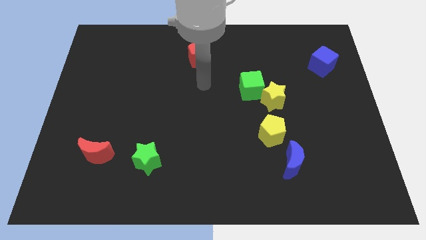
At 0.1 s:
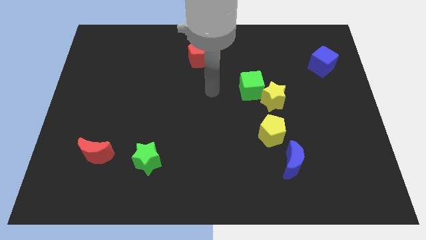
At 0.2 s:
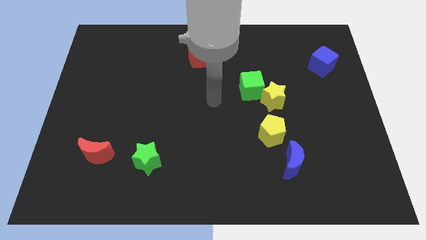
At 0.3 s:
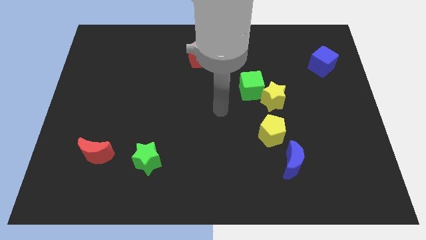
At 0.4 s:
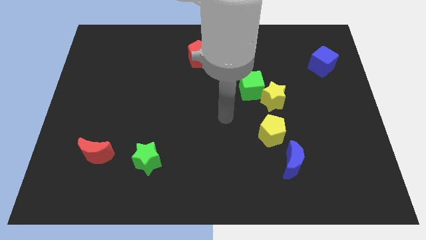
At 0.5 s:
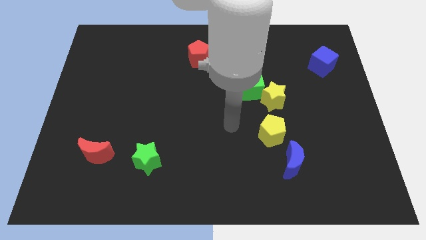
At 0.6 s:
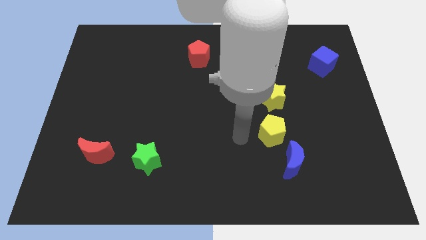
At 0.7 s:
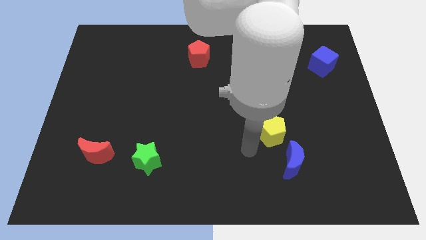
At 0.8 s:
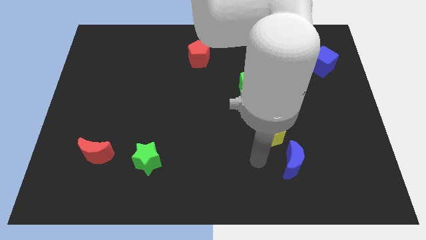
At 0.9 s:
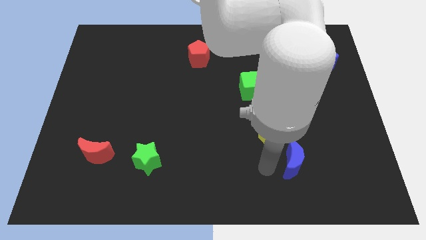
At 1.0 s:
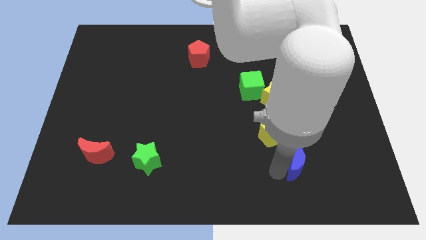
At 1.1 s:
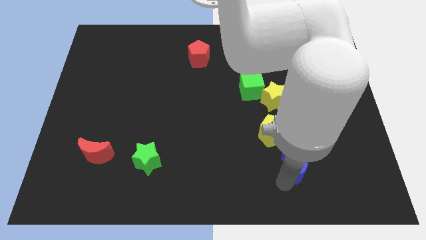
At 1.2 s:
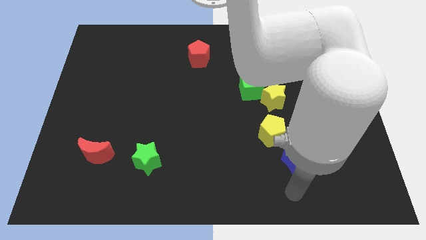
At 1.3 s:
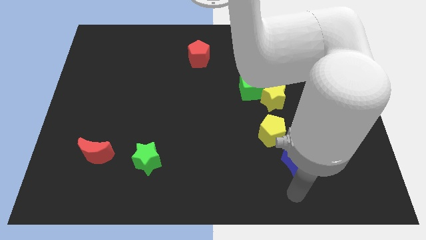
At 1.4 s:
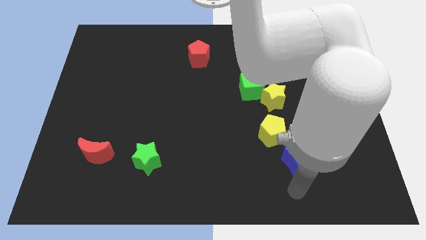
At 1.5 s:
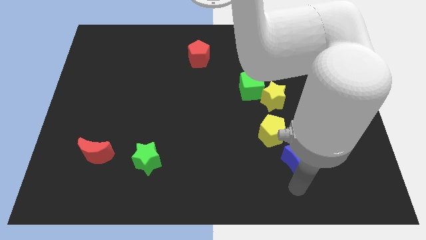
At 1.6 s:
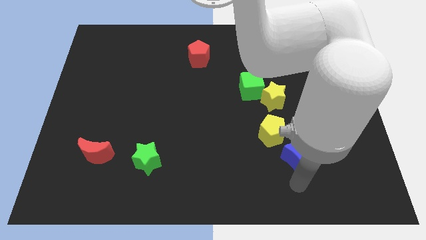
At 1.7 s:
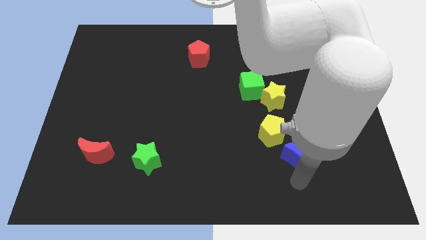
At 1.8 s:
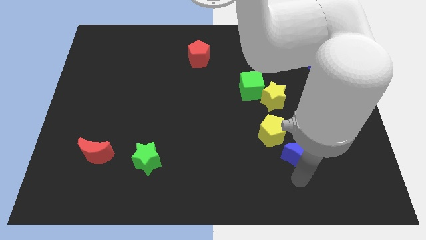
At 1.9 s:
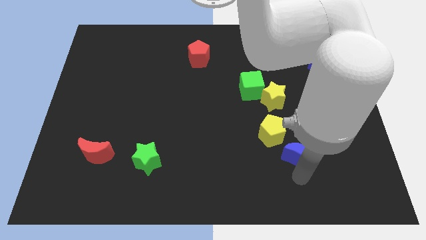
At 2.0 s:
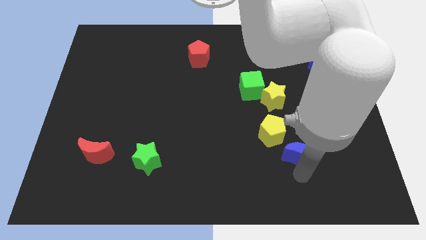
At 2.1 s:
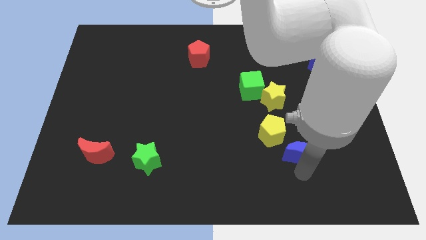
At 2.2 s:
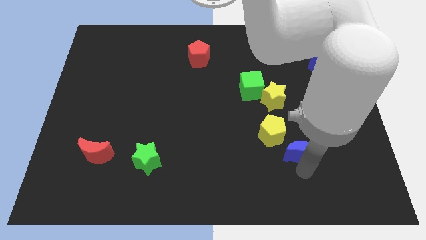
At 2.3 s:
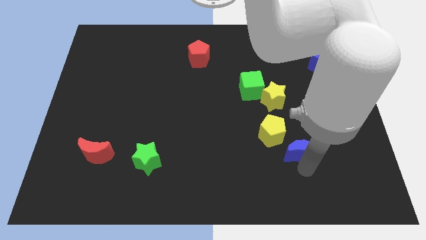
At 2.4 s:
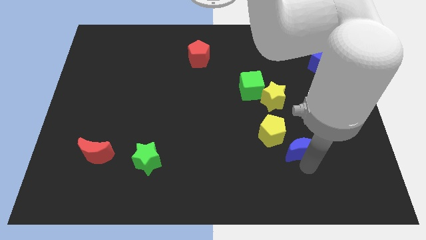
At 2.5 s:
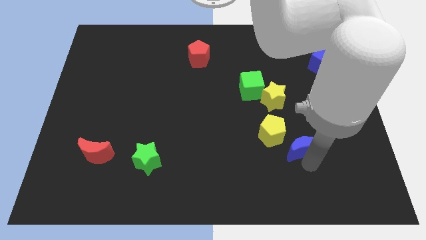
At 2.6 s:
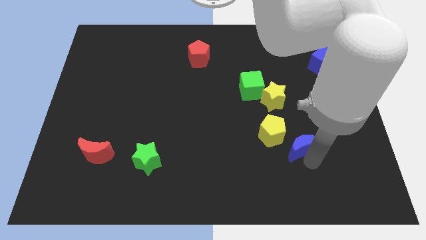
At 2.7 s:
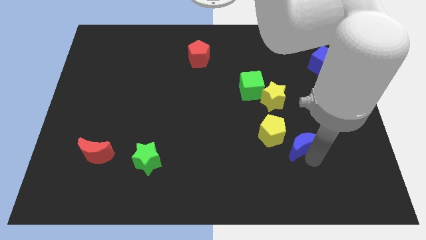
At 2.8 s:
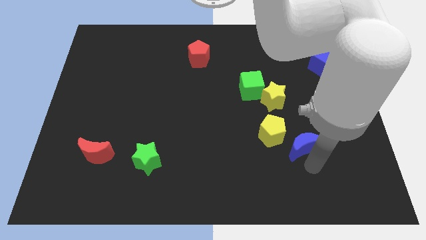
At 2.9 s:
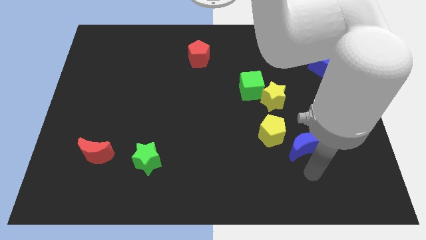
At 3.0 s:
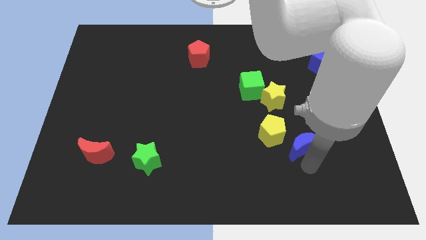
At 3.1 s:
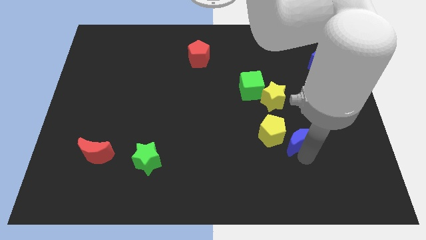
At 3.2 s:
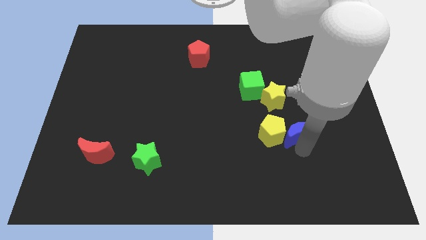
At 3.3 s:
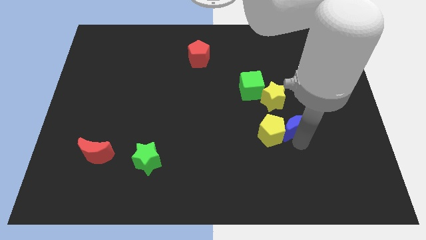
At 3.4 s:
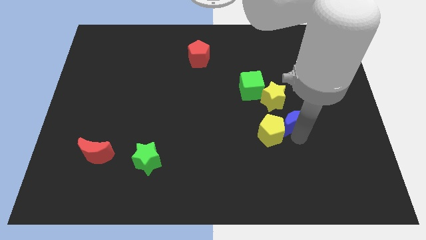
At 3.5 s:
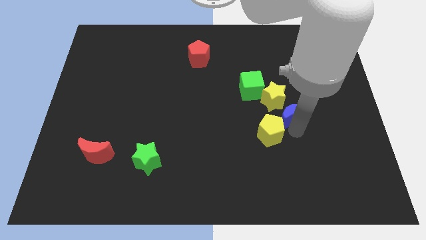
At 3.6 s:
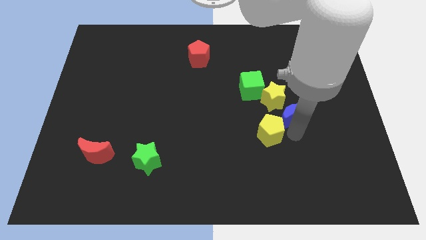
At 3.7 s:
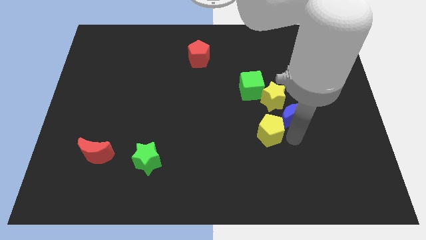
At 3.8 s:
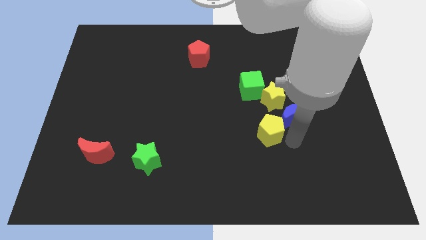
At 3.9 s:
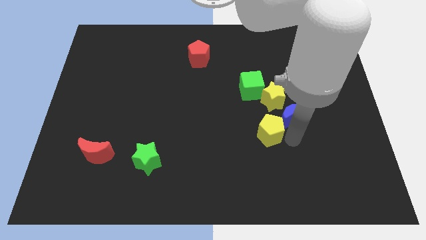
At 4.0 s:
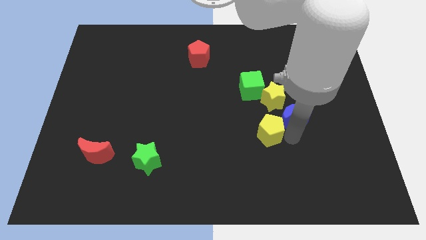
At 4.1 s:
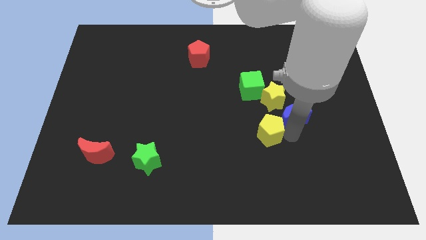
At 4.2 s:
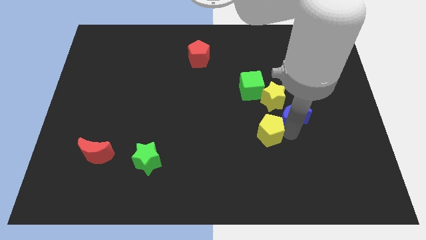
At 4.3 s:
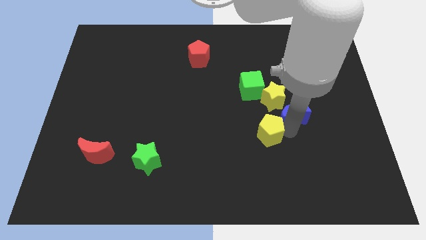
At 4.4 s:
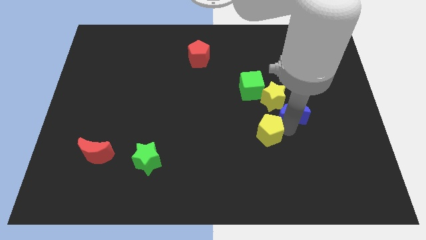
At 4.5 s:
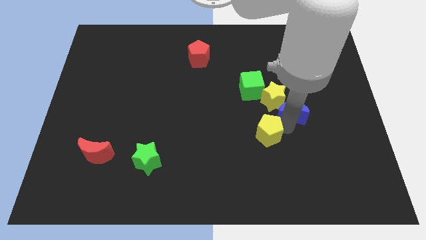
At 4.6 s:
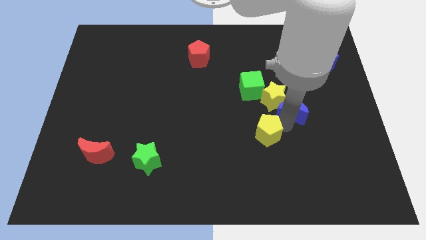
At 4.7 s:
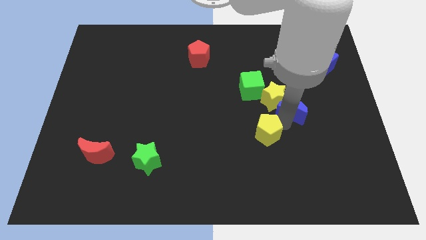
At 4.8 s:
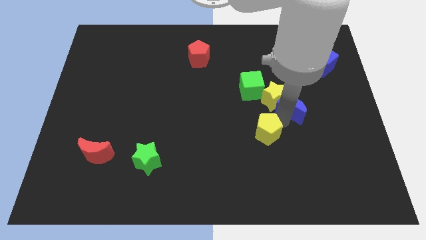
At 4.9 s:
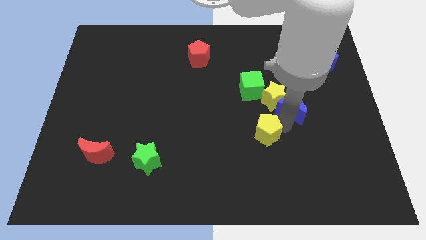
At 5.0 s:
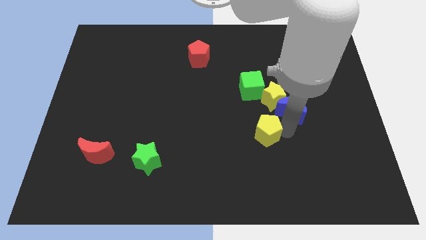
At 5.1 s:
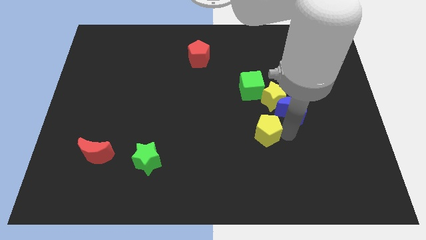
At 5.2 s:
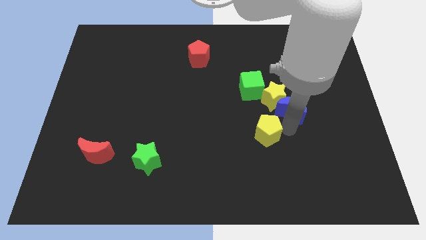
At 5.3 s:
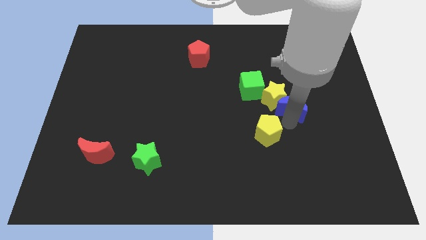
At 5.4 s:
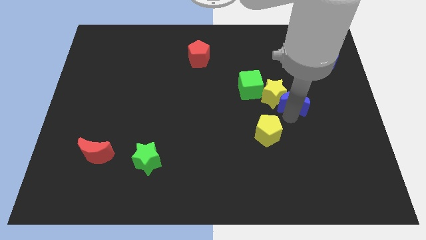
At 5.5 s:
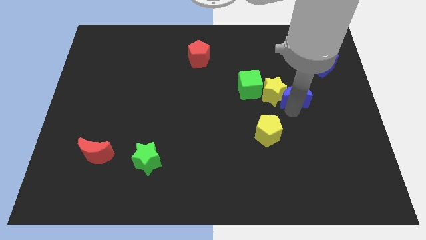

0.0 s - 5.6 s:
slide the blue moon right of the green cube

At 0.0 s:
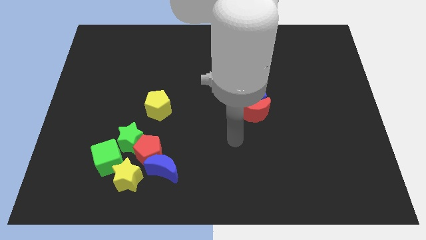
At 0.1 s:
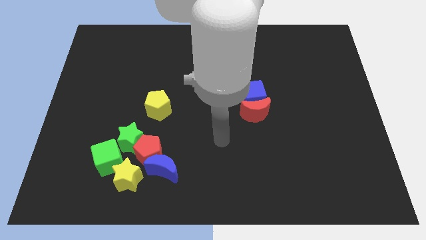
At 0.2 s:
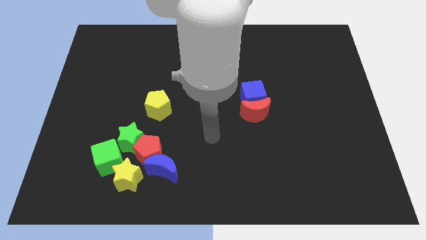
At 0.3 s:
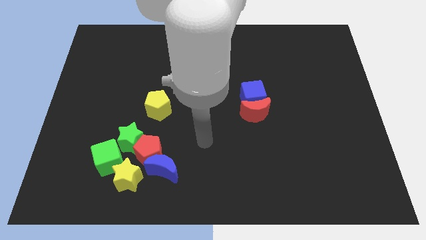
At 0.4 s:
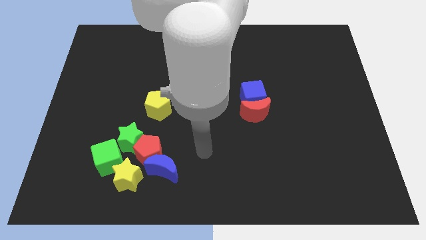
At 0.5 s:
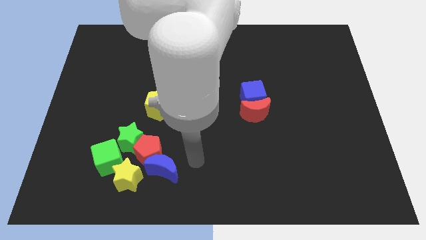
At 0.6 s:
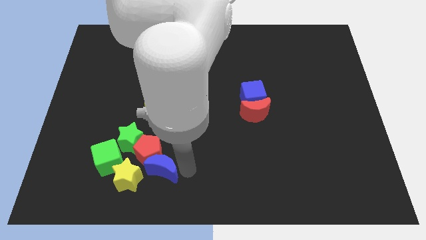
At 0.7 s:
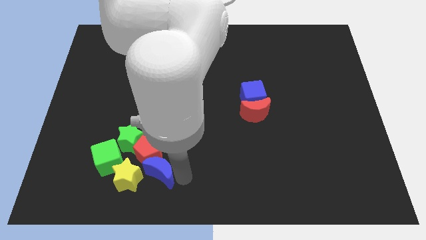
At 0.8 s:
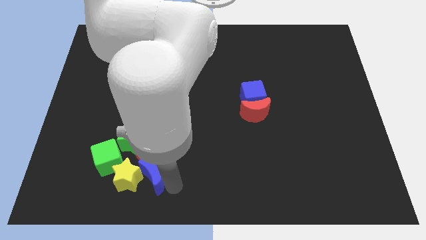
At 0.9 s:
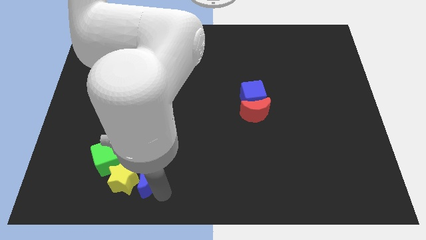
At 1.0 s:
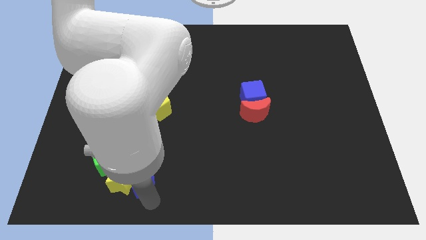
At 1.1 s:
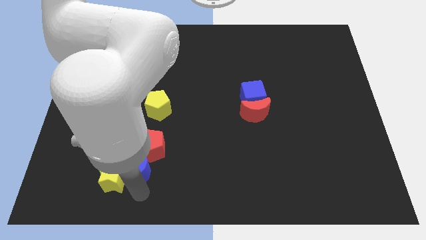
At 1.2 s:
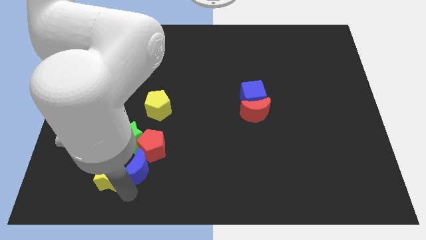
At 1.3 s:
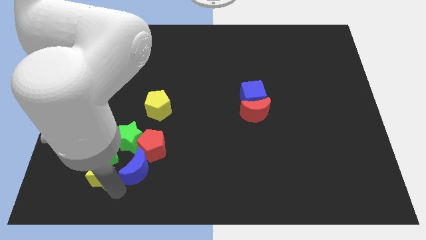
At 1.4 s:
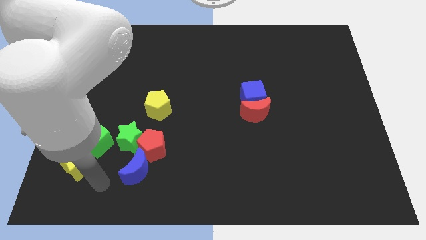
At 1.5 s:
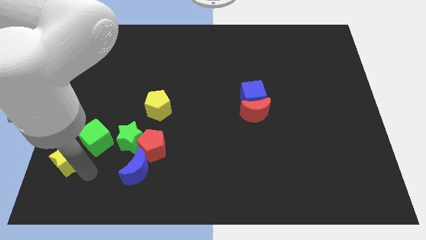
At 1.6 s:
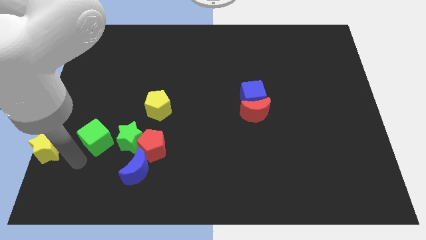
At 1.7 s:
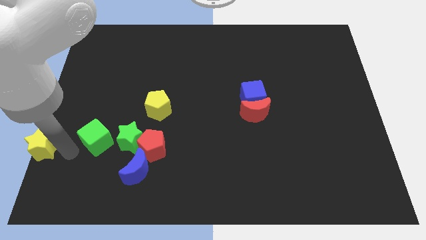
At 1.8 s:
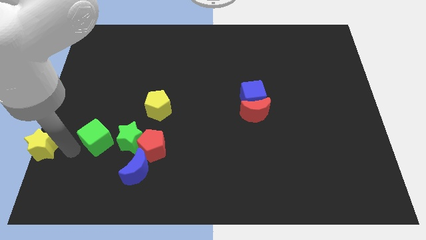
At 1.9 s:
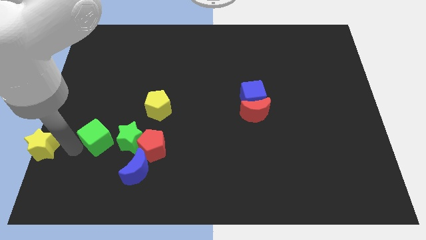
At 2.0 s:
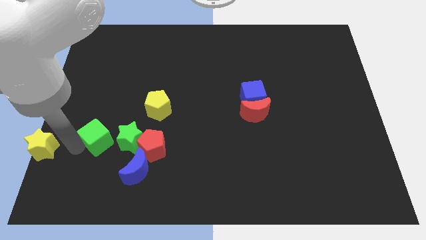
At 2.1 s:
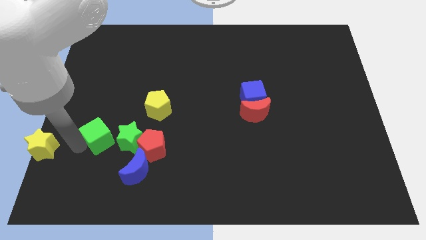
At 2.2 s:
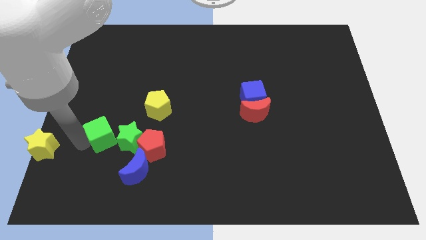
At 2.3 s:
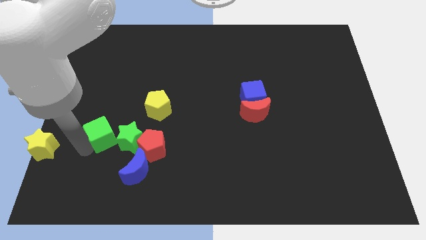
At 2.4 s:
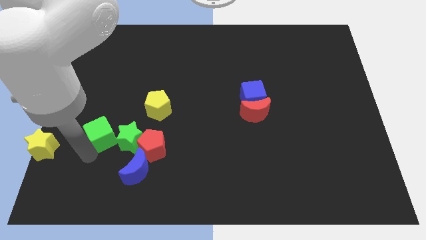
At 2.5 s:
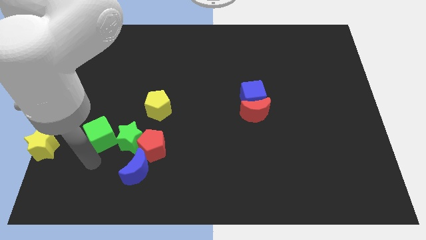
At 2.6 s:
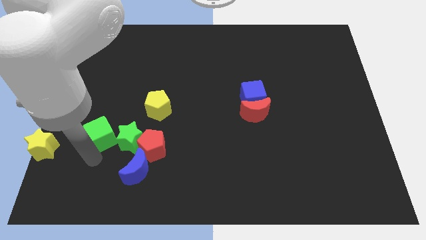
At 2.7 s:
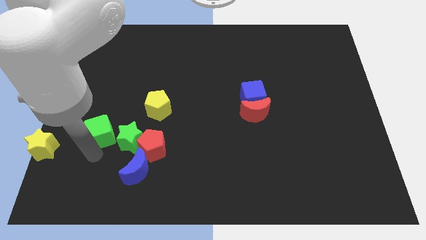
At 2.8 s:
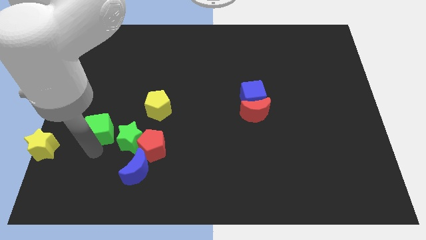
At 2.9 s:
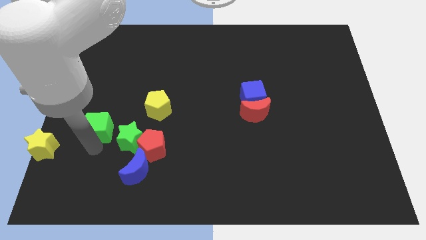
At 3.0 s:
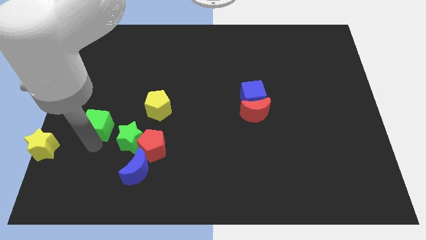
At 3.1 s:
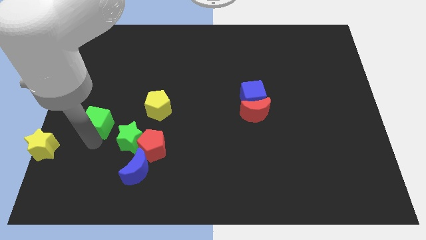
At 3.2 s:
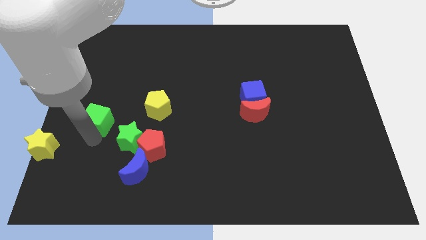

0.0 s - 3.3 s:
put the green cube just left of the yellow pentagon
